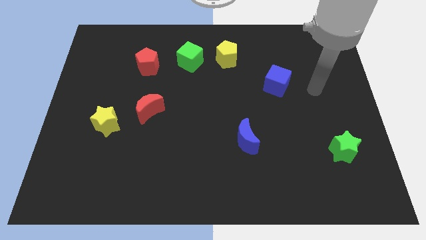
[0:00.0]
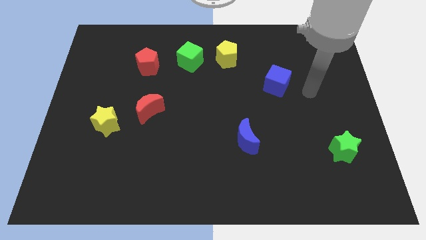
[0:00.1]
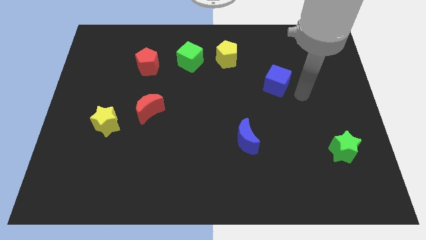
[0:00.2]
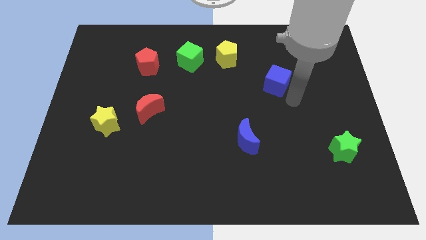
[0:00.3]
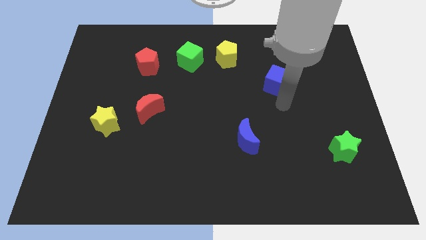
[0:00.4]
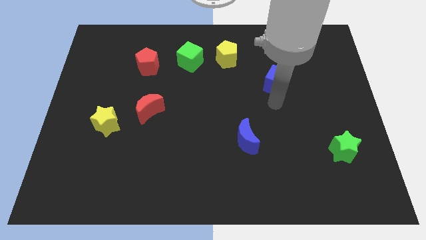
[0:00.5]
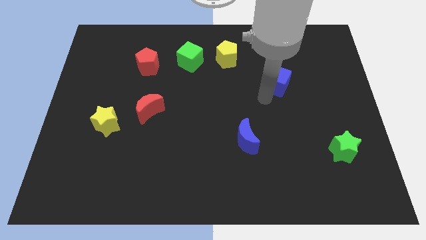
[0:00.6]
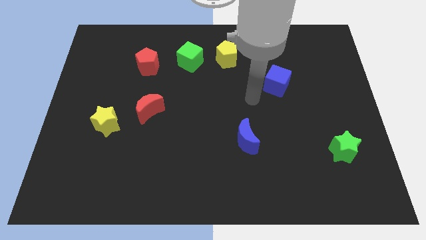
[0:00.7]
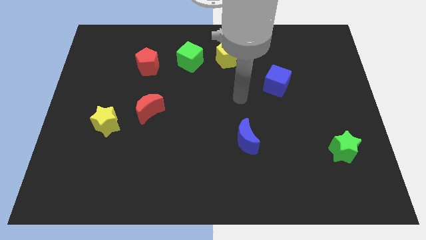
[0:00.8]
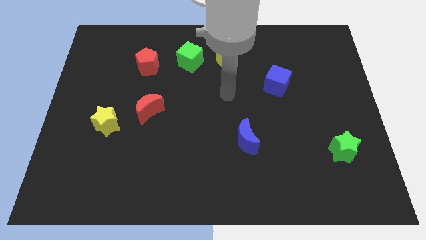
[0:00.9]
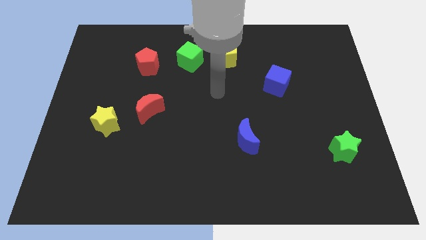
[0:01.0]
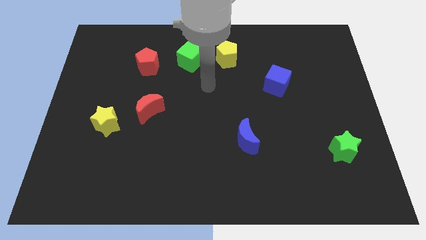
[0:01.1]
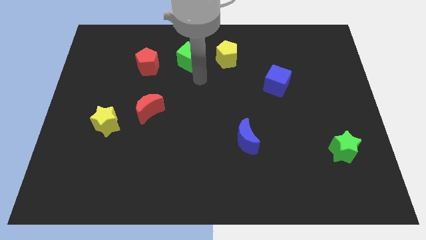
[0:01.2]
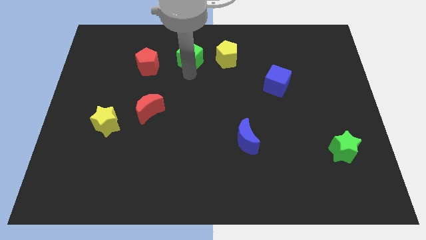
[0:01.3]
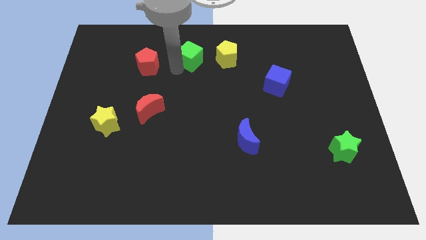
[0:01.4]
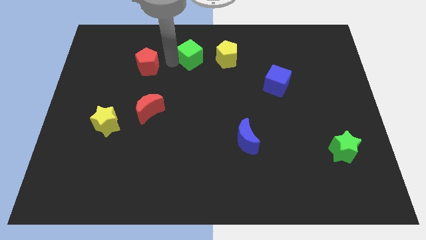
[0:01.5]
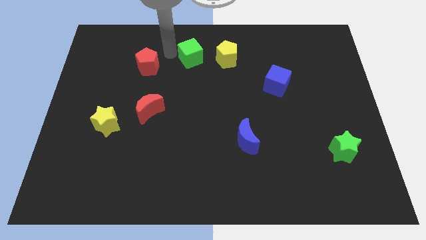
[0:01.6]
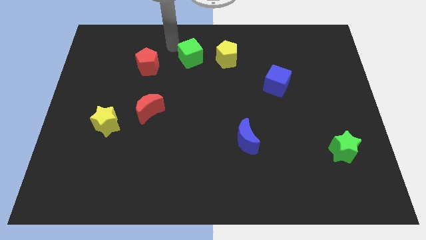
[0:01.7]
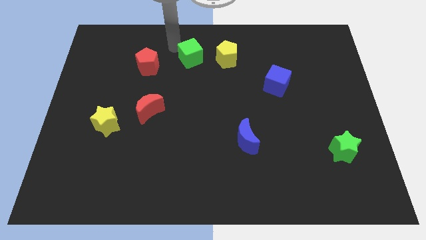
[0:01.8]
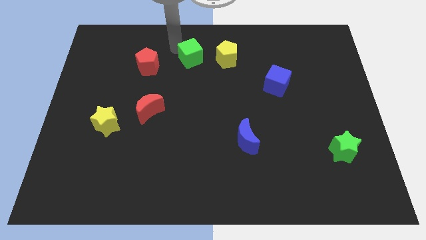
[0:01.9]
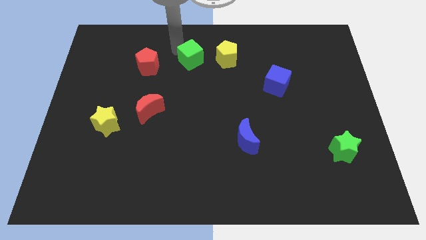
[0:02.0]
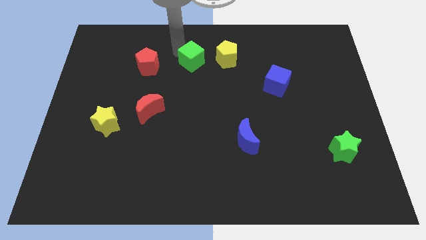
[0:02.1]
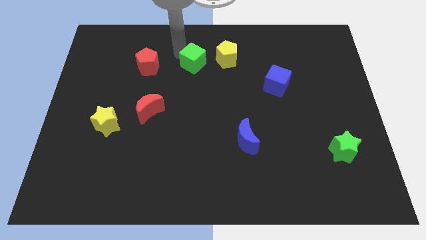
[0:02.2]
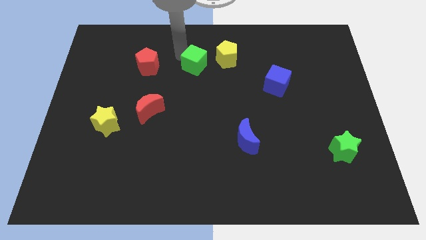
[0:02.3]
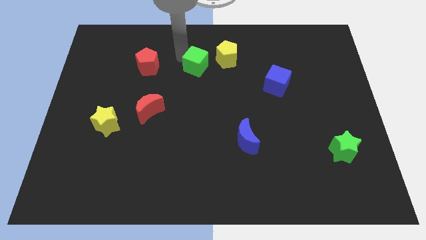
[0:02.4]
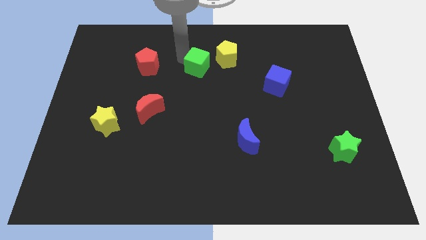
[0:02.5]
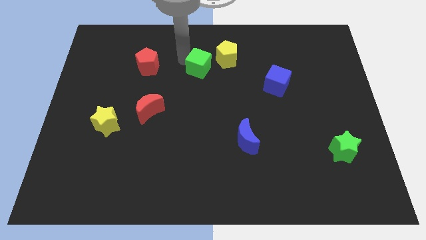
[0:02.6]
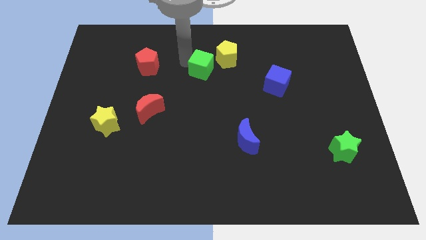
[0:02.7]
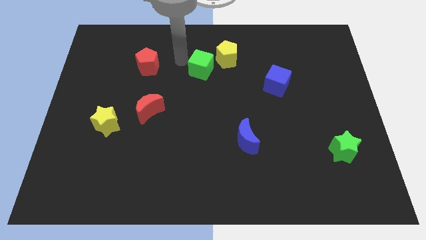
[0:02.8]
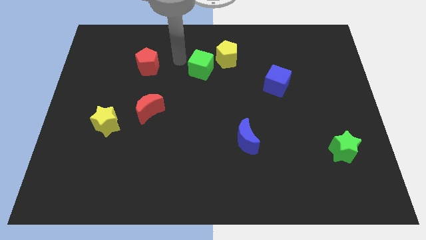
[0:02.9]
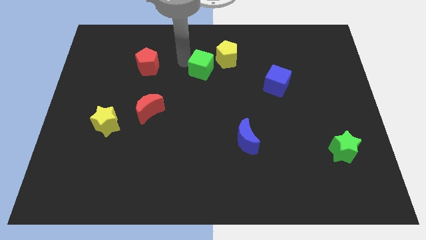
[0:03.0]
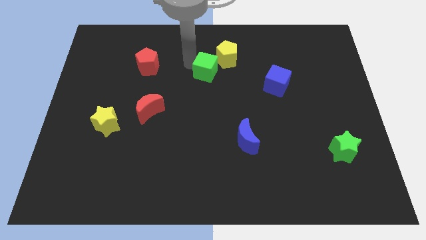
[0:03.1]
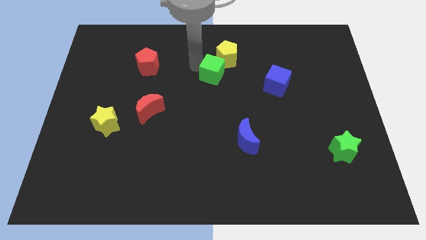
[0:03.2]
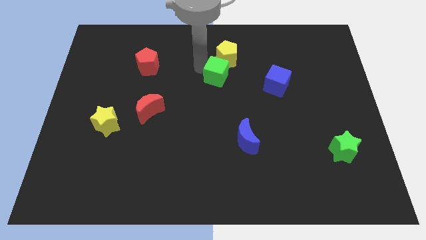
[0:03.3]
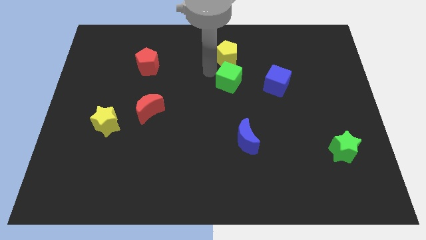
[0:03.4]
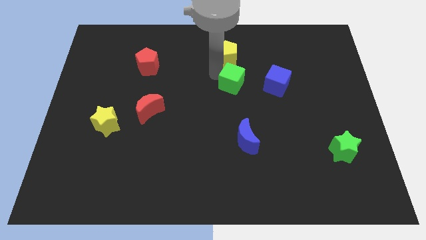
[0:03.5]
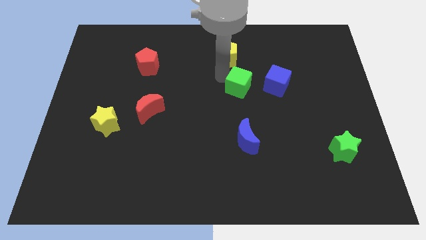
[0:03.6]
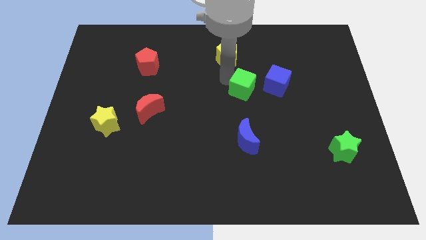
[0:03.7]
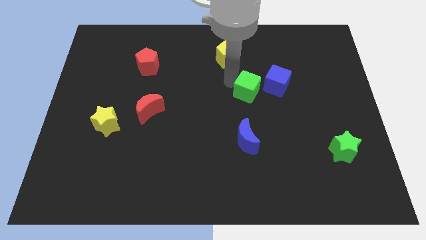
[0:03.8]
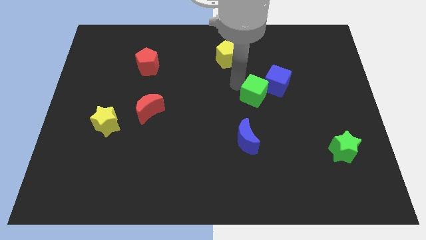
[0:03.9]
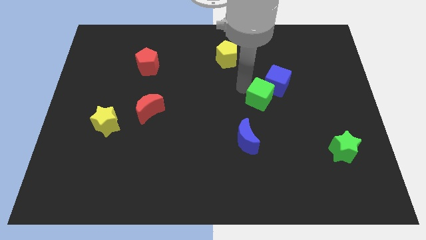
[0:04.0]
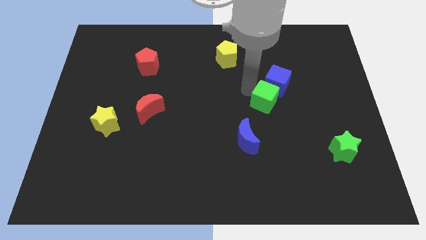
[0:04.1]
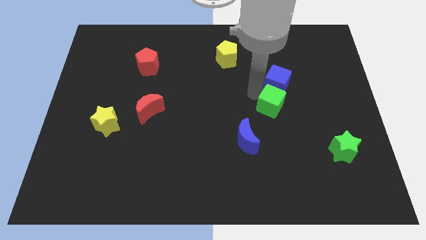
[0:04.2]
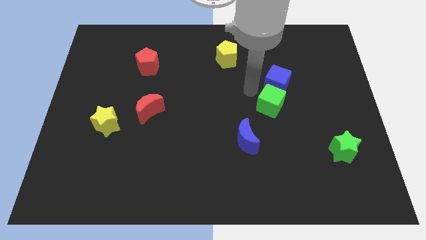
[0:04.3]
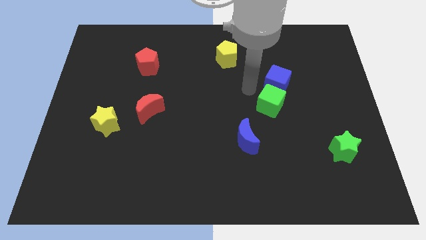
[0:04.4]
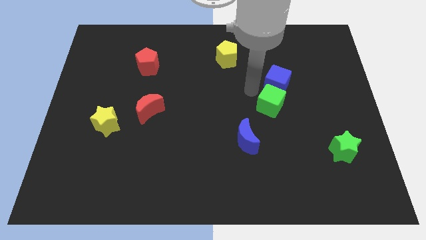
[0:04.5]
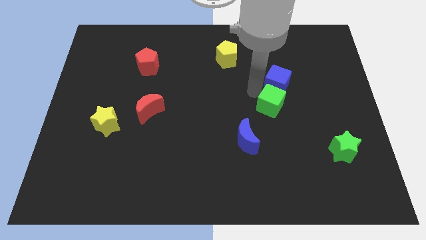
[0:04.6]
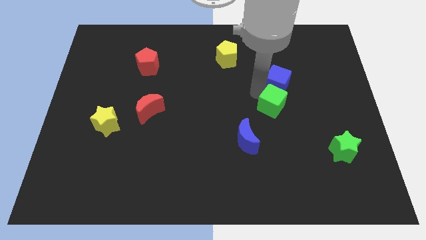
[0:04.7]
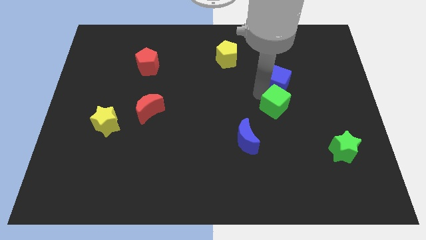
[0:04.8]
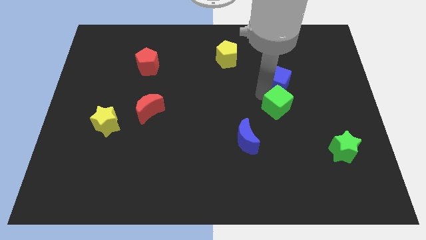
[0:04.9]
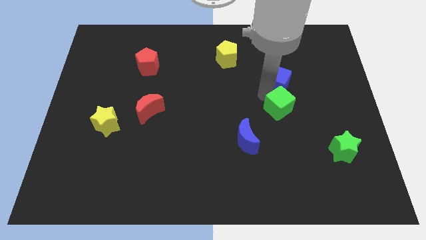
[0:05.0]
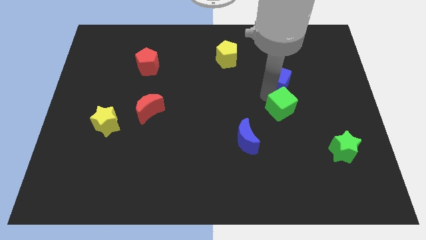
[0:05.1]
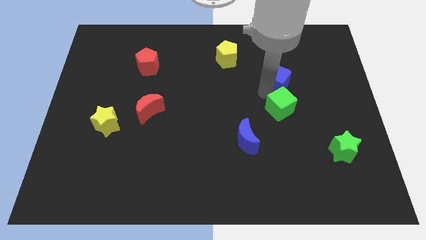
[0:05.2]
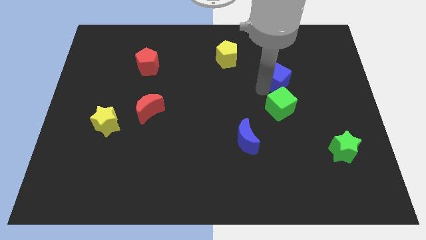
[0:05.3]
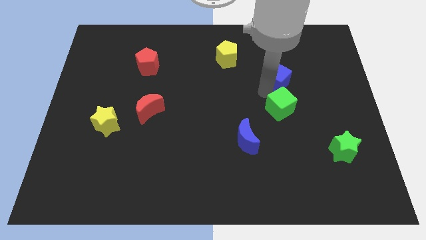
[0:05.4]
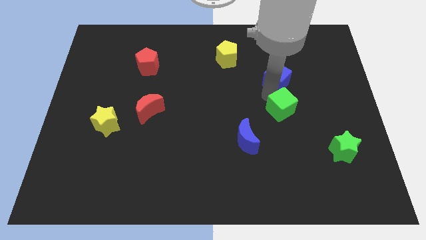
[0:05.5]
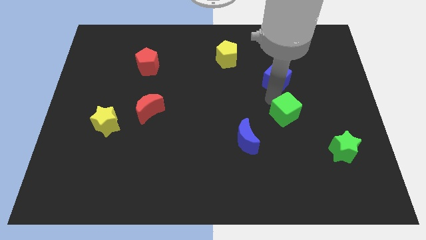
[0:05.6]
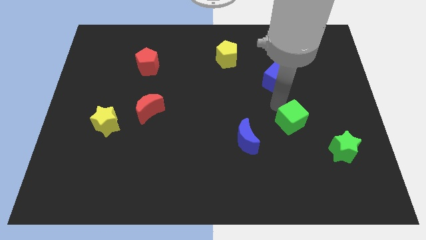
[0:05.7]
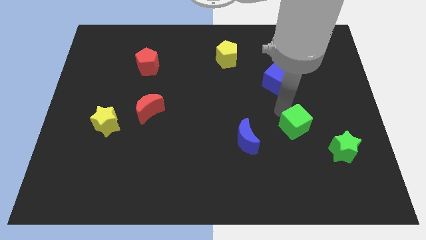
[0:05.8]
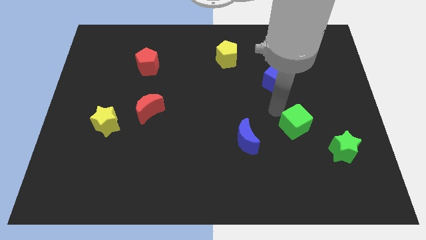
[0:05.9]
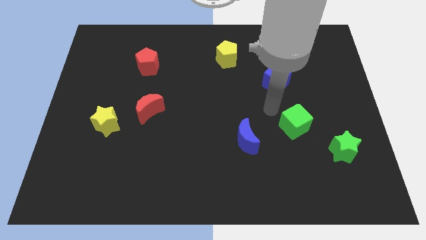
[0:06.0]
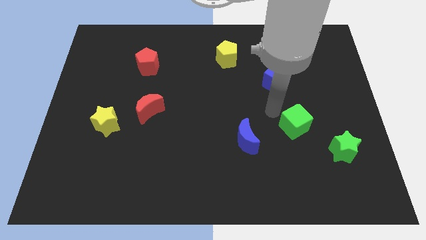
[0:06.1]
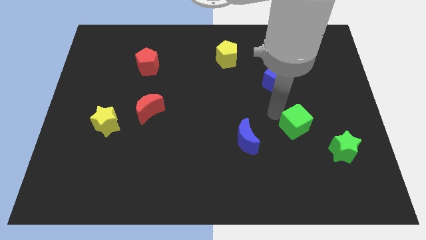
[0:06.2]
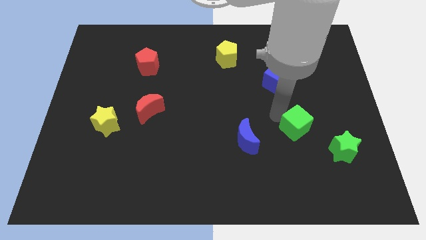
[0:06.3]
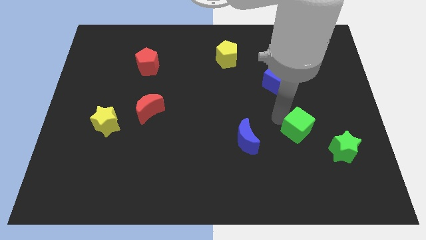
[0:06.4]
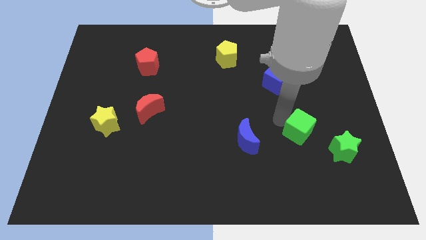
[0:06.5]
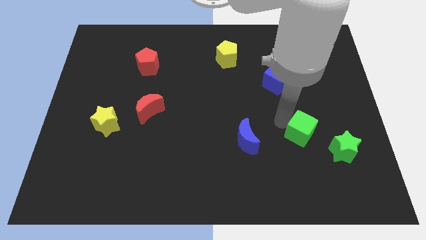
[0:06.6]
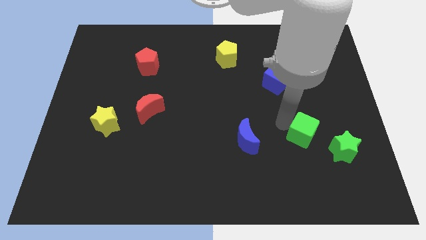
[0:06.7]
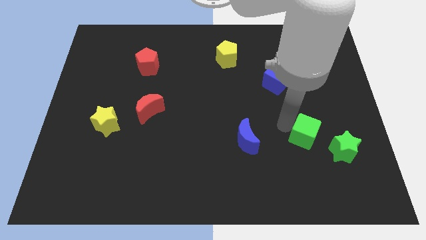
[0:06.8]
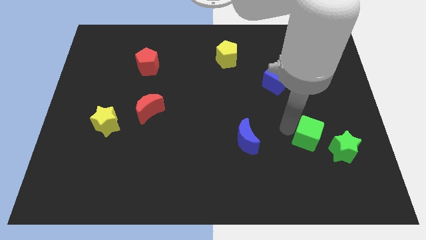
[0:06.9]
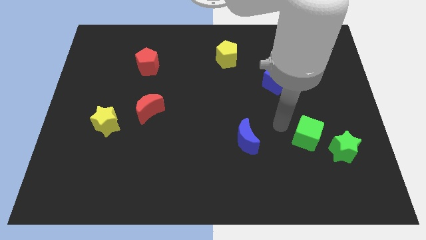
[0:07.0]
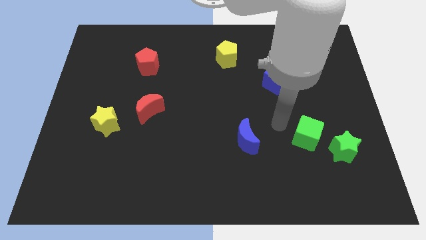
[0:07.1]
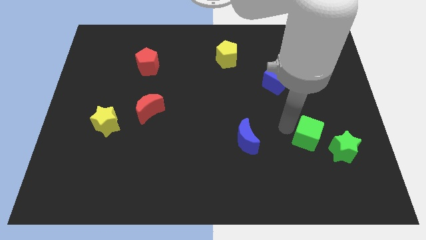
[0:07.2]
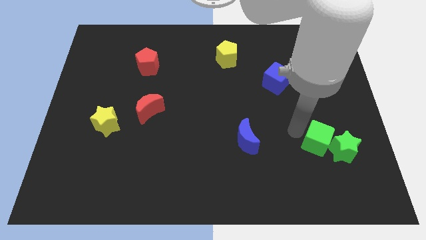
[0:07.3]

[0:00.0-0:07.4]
put the green cube towards the green star

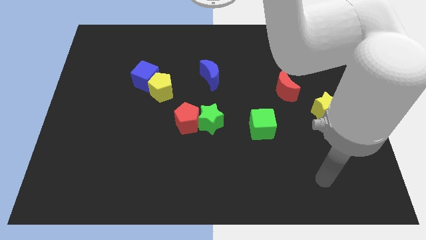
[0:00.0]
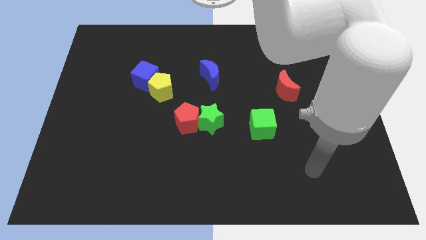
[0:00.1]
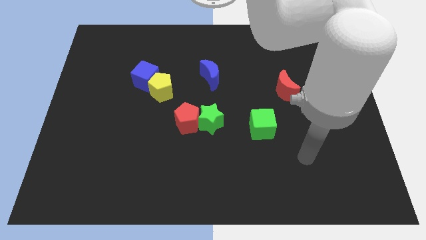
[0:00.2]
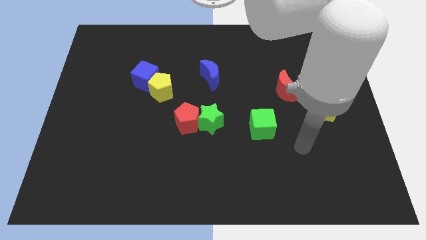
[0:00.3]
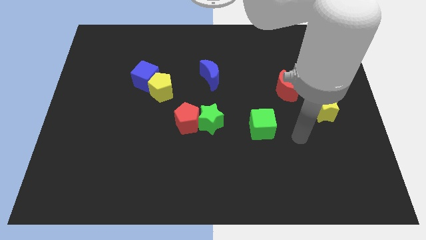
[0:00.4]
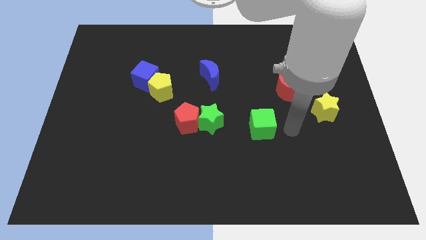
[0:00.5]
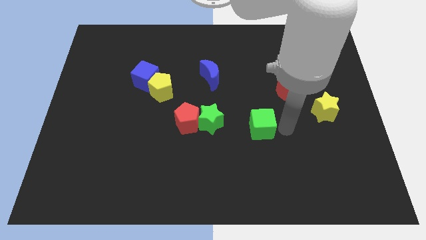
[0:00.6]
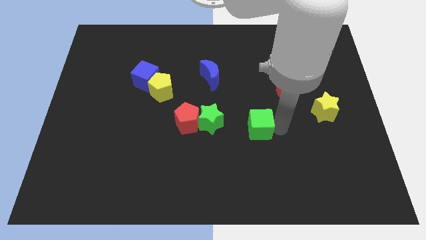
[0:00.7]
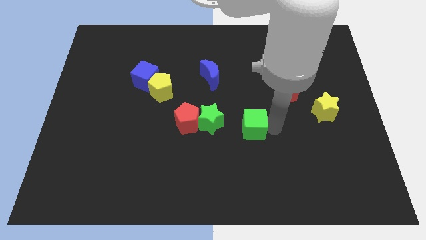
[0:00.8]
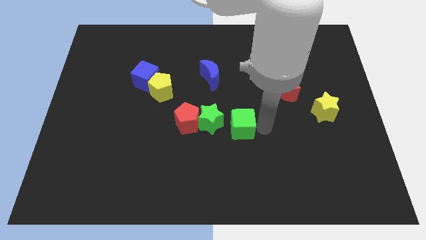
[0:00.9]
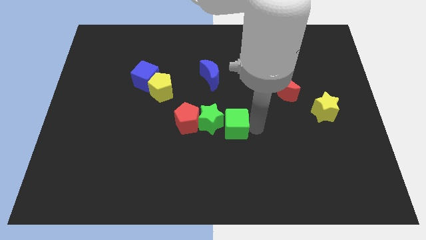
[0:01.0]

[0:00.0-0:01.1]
slide the green cube towards the green star
